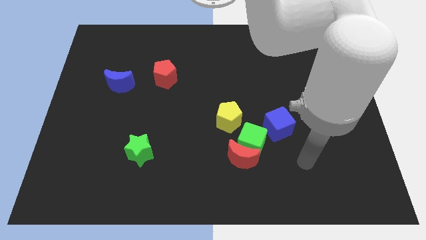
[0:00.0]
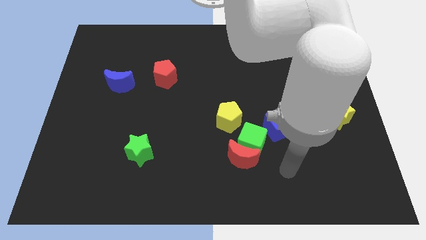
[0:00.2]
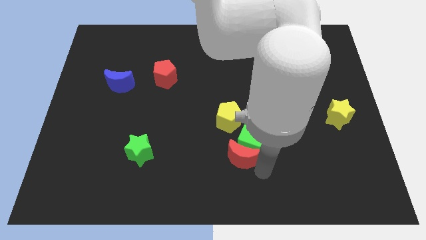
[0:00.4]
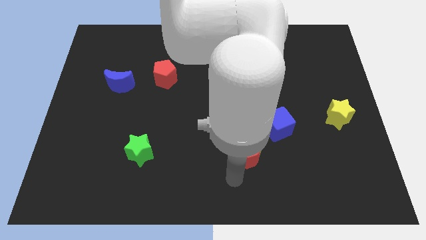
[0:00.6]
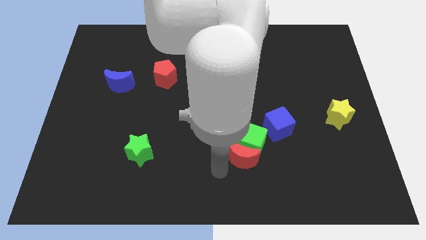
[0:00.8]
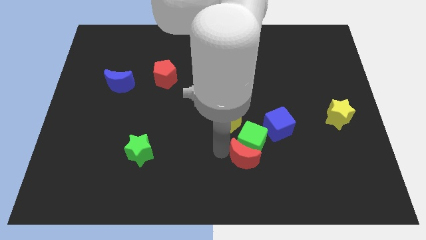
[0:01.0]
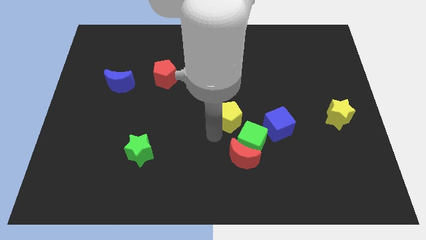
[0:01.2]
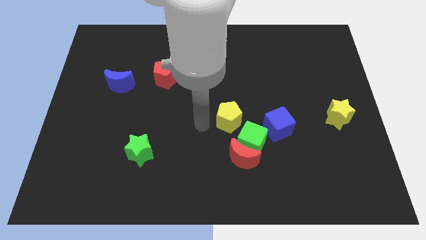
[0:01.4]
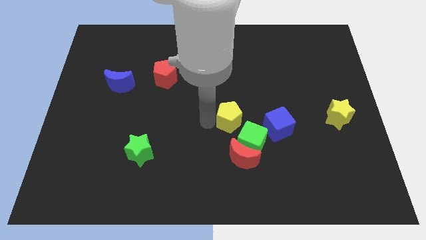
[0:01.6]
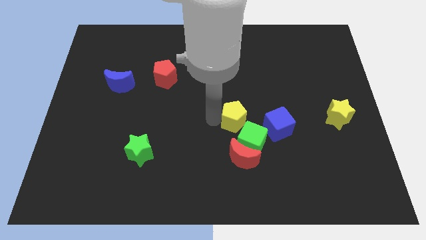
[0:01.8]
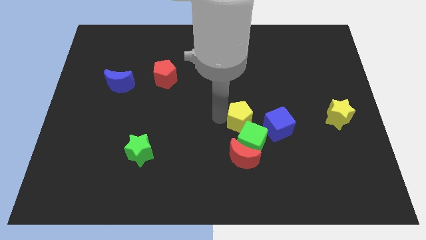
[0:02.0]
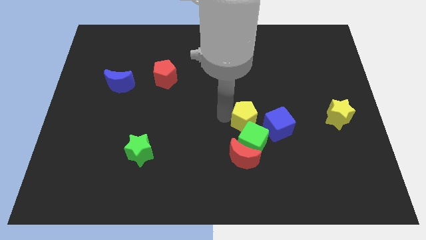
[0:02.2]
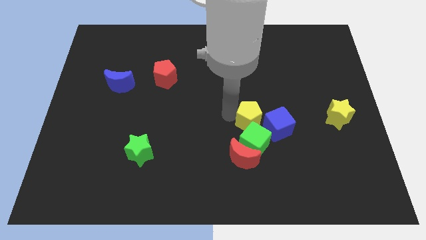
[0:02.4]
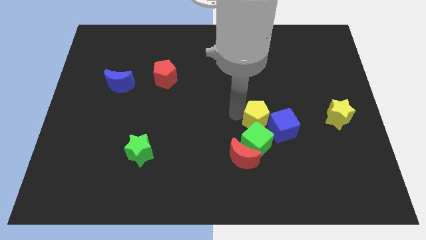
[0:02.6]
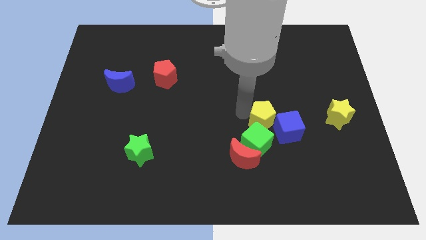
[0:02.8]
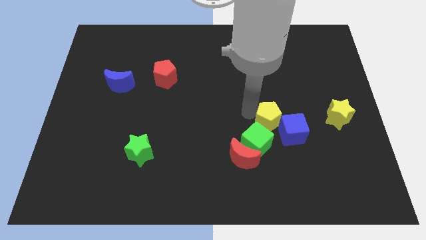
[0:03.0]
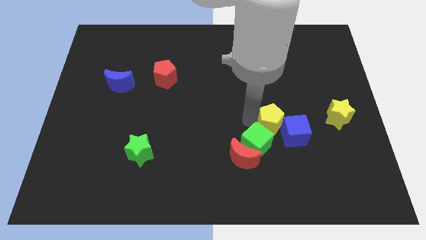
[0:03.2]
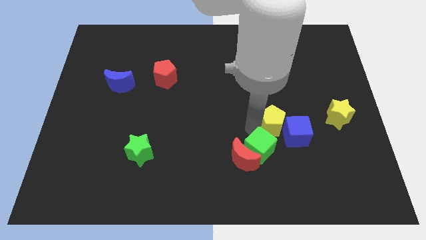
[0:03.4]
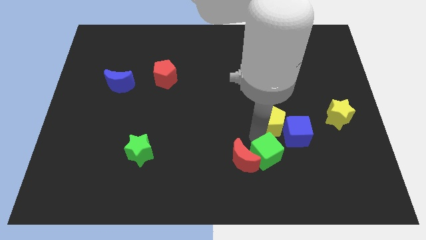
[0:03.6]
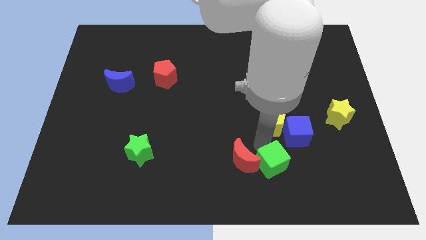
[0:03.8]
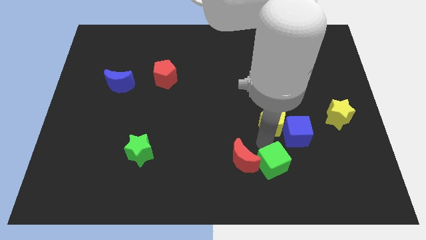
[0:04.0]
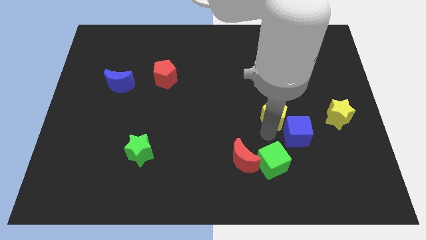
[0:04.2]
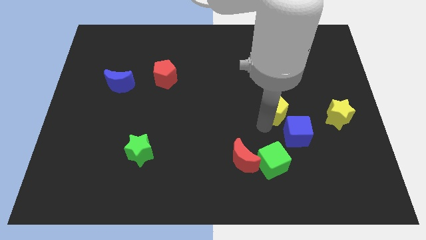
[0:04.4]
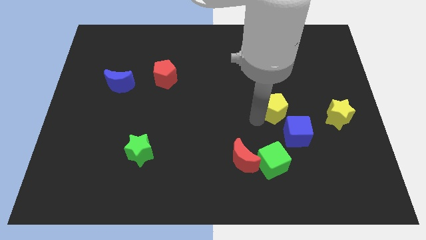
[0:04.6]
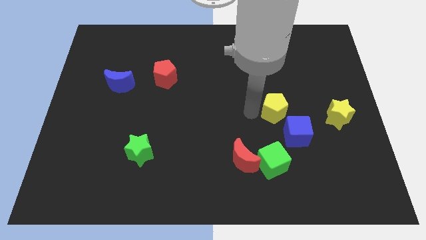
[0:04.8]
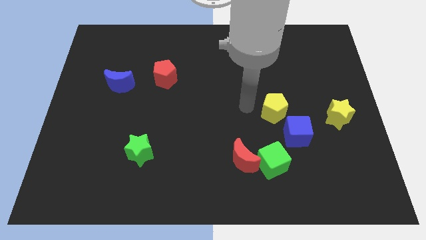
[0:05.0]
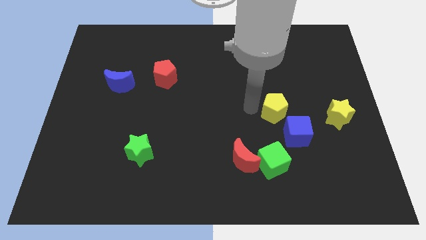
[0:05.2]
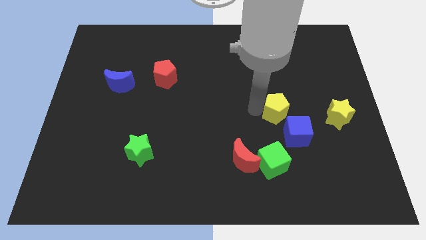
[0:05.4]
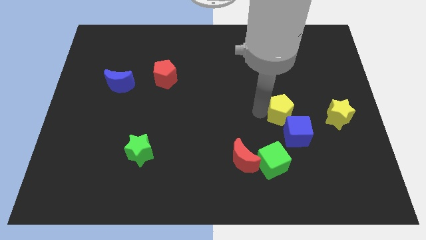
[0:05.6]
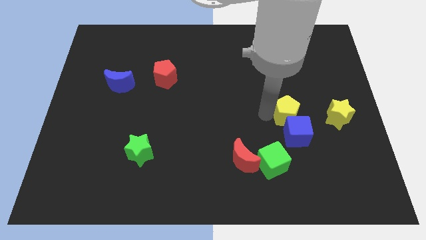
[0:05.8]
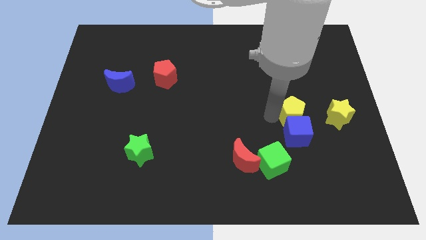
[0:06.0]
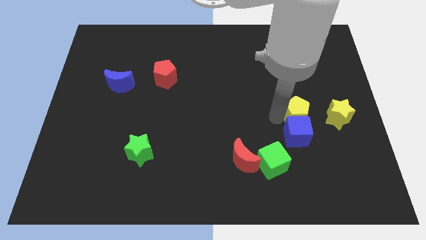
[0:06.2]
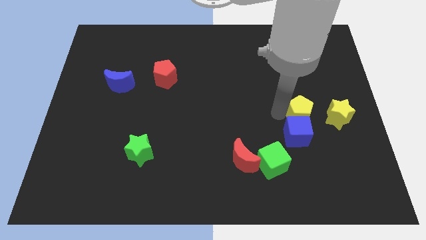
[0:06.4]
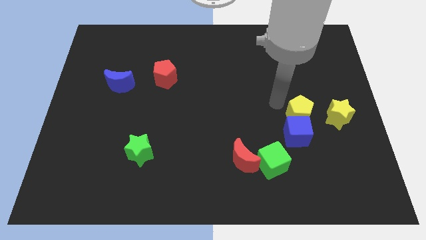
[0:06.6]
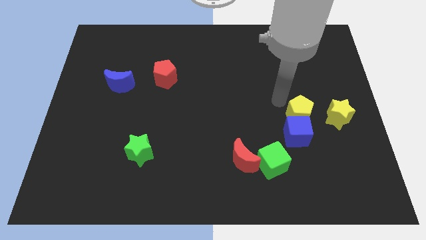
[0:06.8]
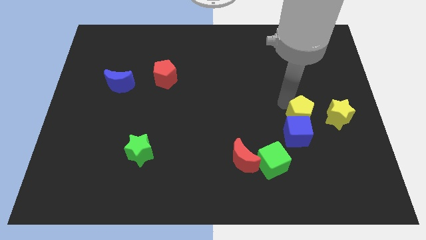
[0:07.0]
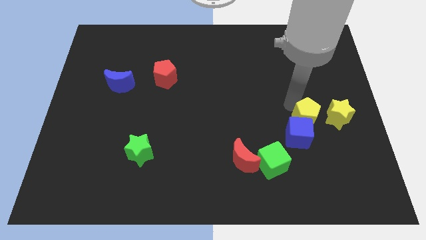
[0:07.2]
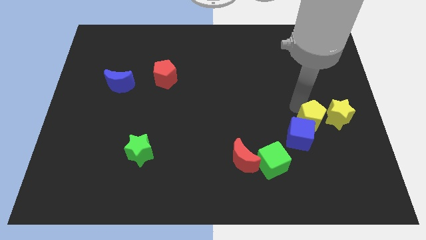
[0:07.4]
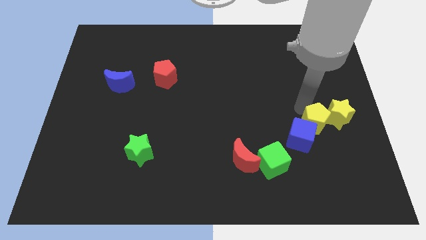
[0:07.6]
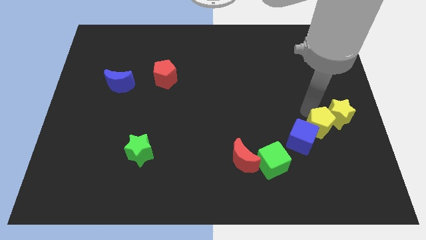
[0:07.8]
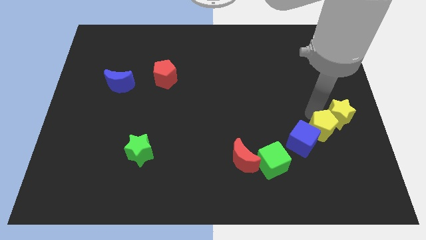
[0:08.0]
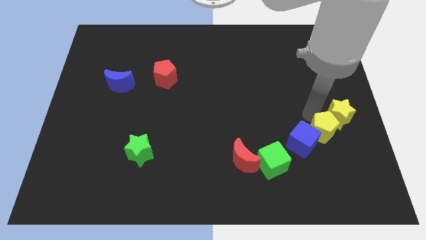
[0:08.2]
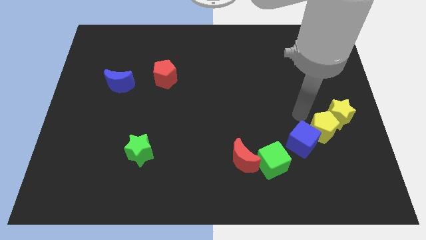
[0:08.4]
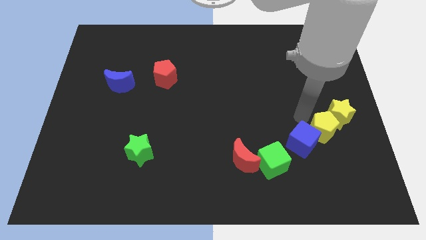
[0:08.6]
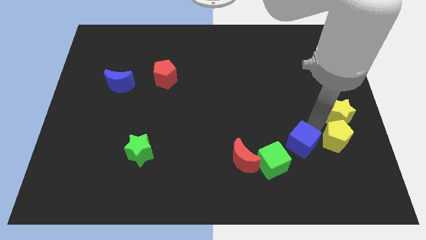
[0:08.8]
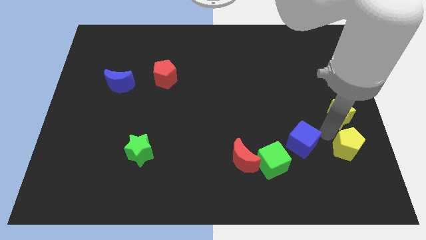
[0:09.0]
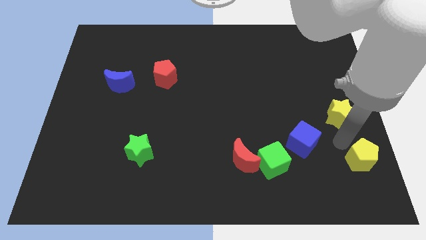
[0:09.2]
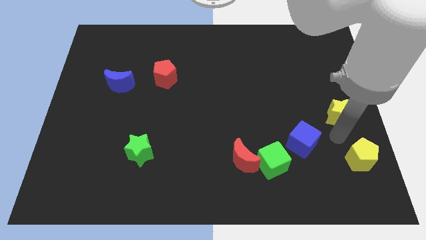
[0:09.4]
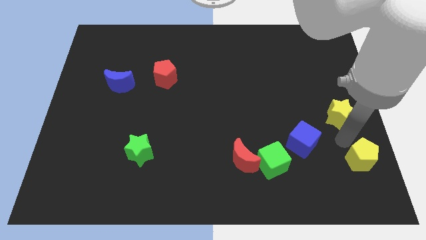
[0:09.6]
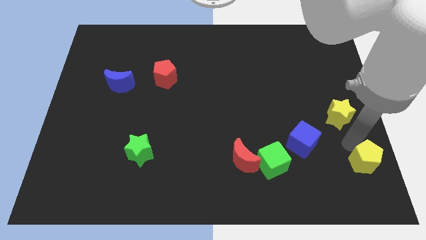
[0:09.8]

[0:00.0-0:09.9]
slide the yellow pentagon to the bottom right of the board

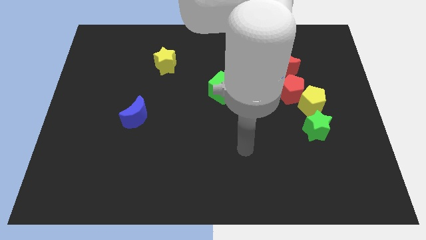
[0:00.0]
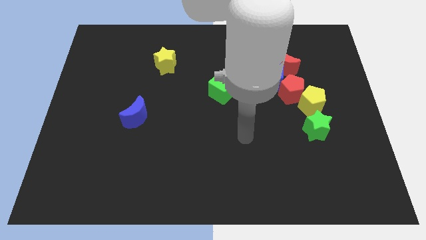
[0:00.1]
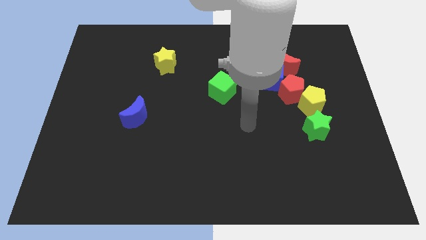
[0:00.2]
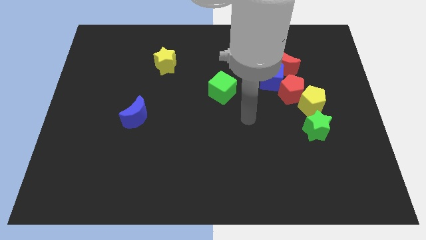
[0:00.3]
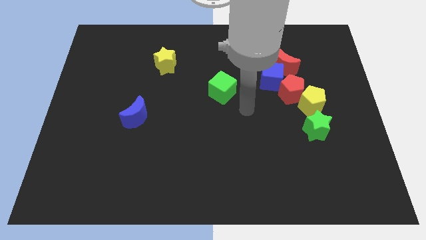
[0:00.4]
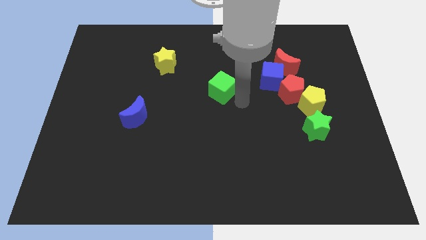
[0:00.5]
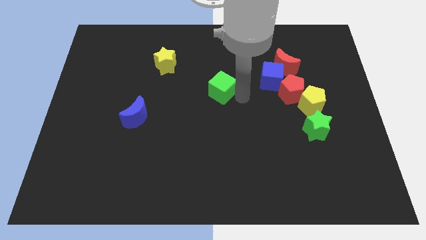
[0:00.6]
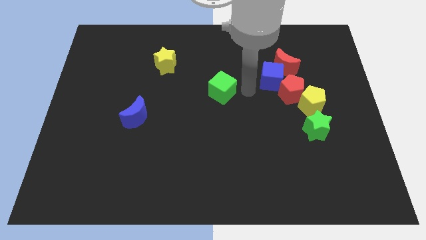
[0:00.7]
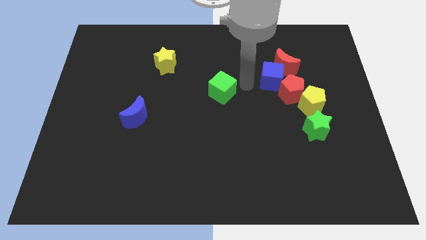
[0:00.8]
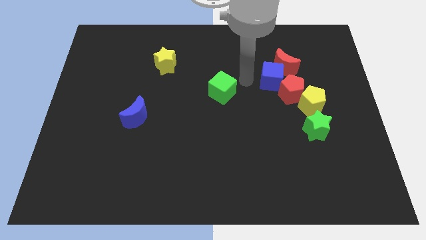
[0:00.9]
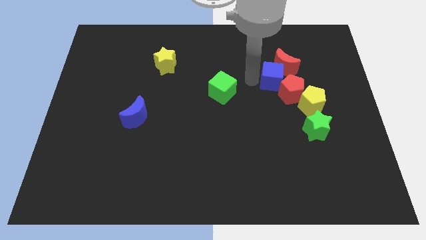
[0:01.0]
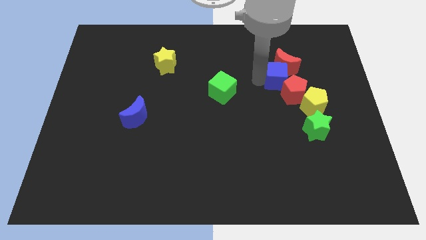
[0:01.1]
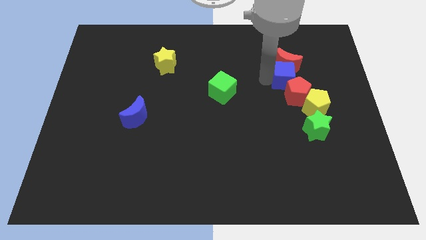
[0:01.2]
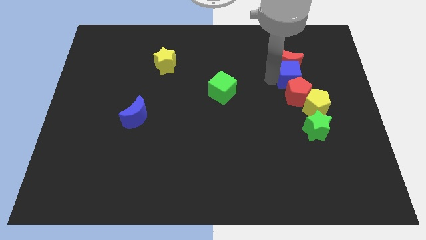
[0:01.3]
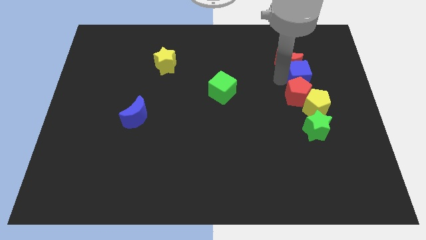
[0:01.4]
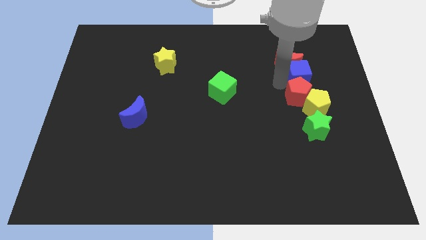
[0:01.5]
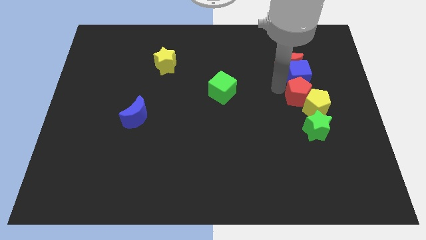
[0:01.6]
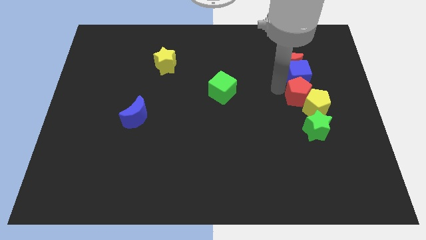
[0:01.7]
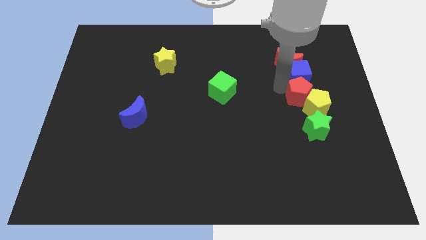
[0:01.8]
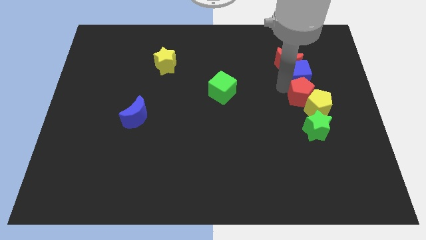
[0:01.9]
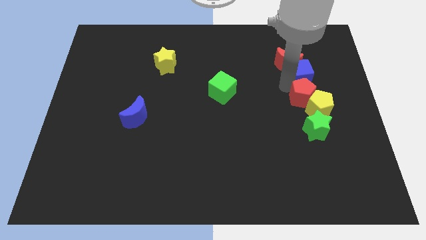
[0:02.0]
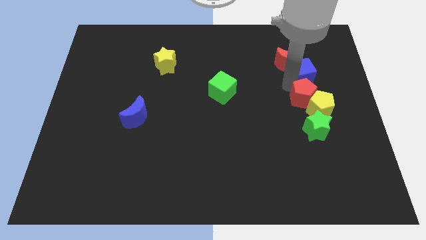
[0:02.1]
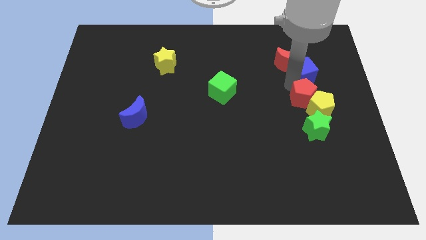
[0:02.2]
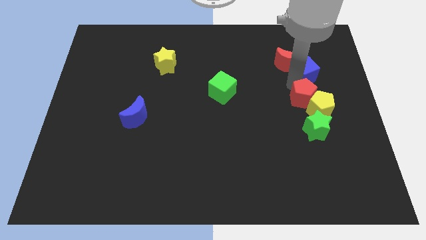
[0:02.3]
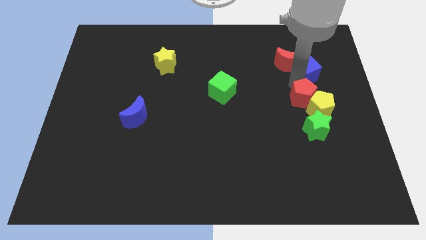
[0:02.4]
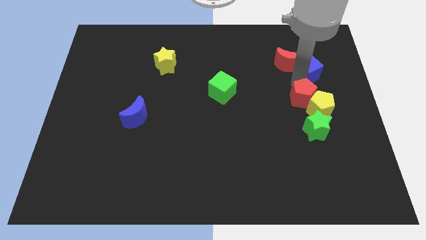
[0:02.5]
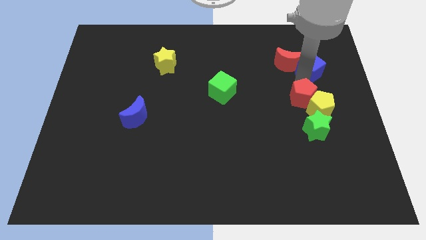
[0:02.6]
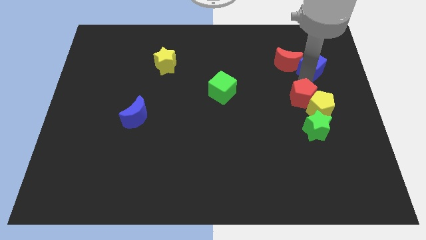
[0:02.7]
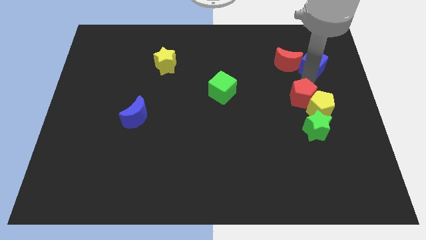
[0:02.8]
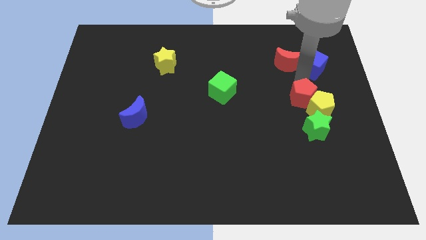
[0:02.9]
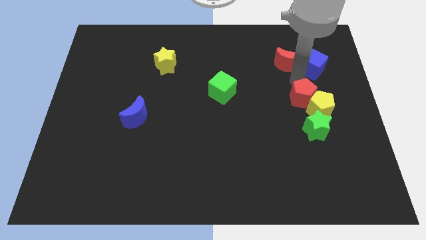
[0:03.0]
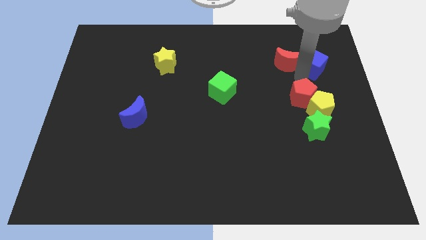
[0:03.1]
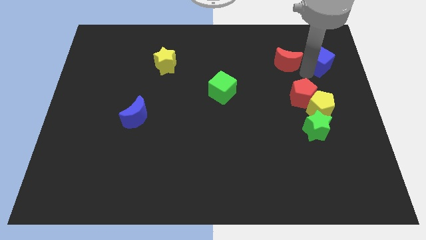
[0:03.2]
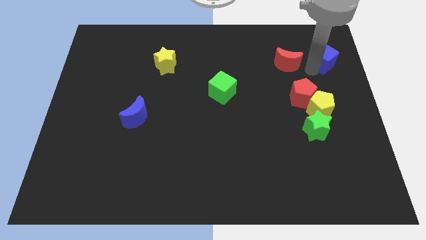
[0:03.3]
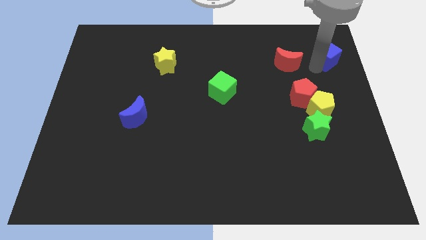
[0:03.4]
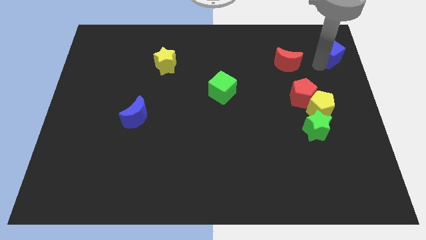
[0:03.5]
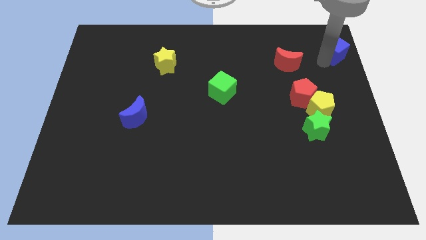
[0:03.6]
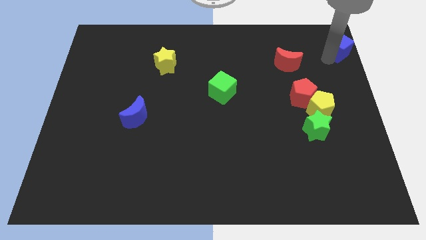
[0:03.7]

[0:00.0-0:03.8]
move the blue cube to the top right
